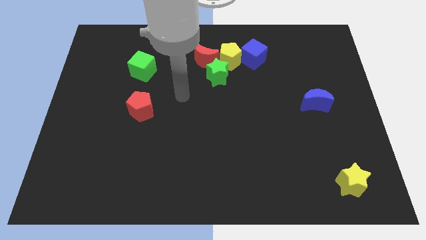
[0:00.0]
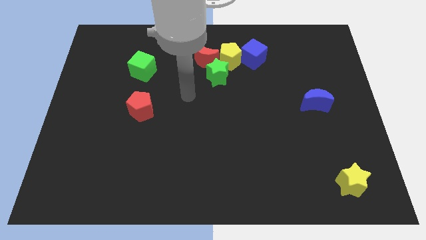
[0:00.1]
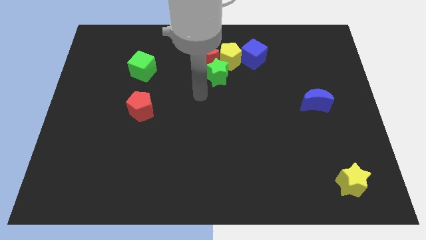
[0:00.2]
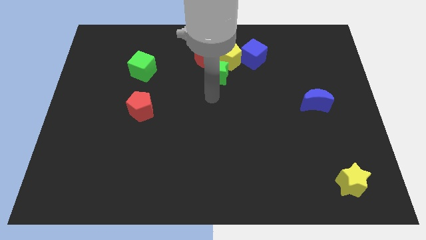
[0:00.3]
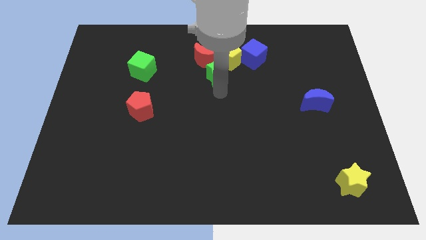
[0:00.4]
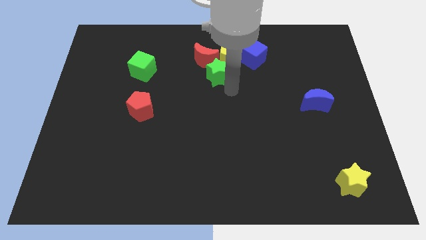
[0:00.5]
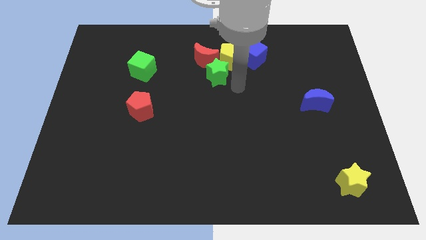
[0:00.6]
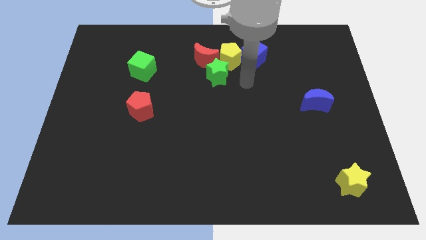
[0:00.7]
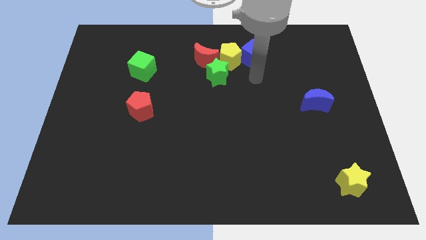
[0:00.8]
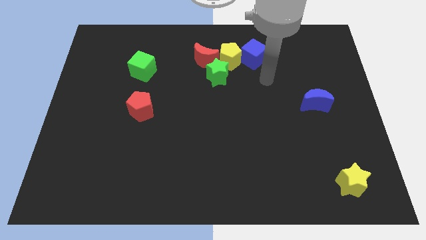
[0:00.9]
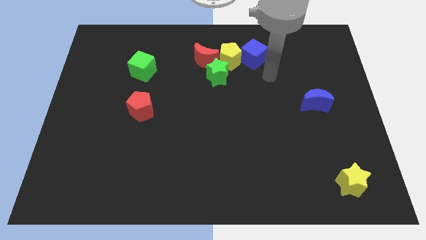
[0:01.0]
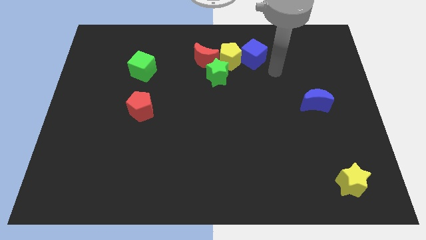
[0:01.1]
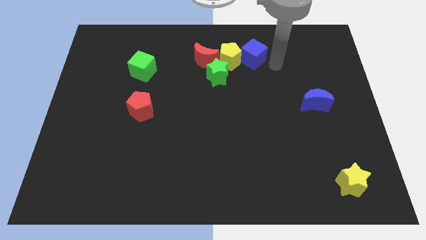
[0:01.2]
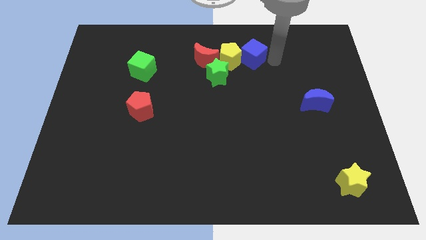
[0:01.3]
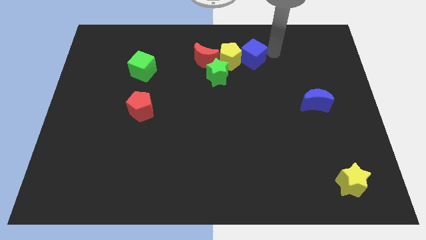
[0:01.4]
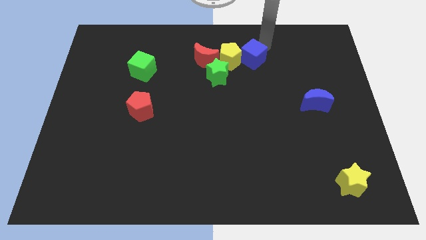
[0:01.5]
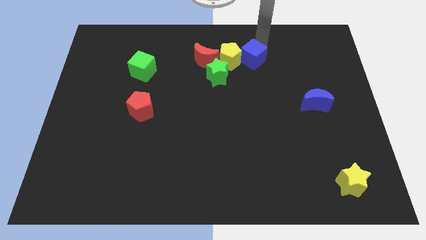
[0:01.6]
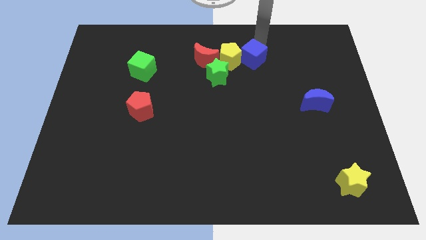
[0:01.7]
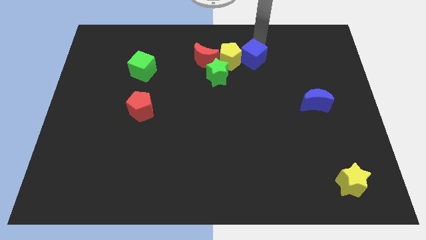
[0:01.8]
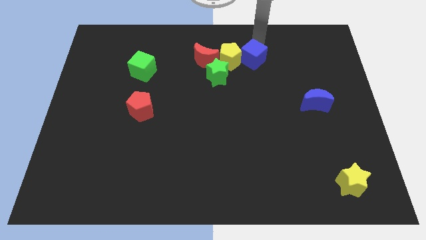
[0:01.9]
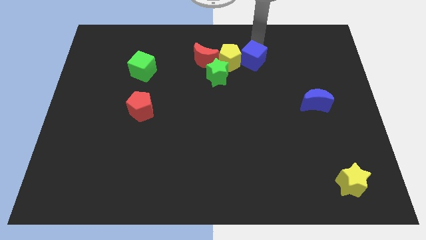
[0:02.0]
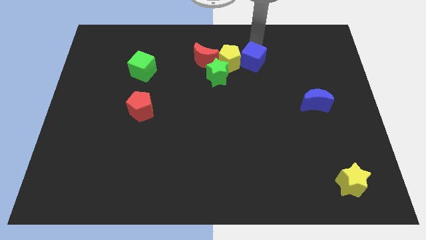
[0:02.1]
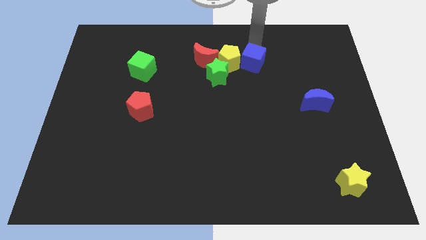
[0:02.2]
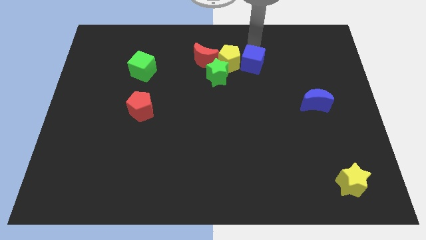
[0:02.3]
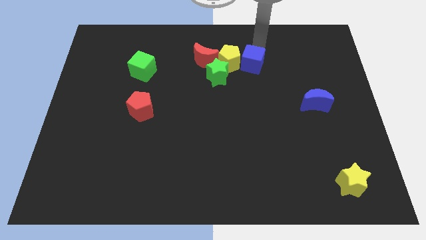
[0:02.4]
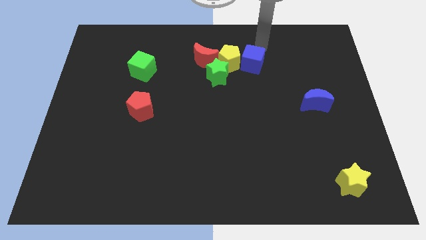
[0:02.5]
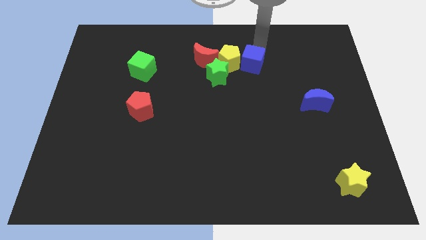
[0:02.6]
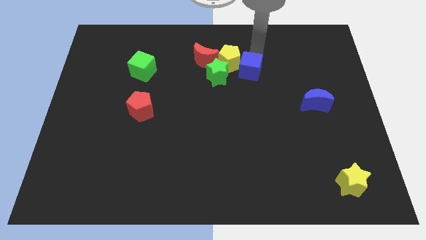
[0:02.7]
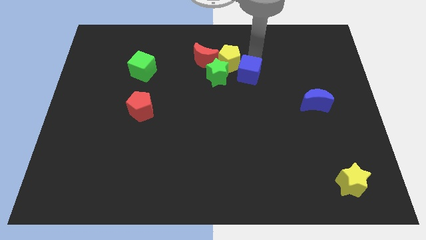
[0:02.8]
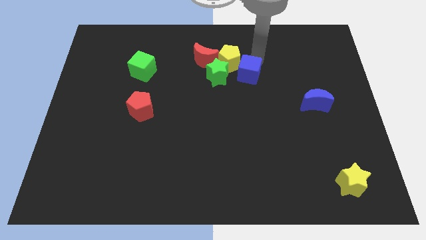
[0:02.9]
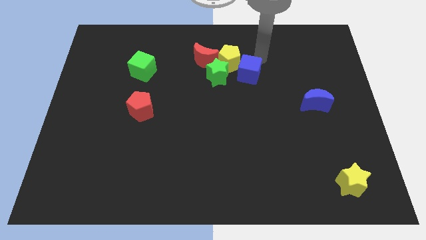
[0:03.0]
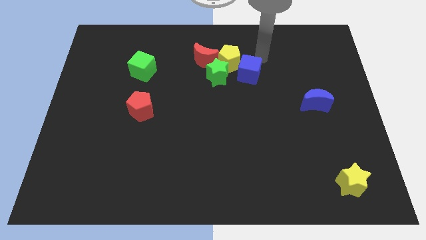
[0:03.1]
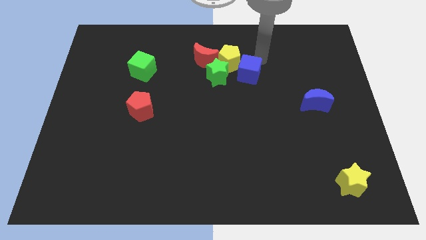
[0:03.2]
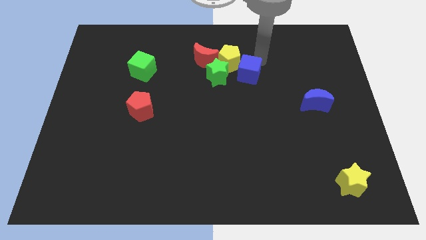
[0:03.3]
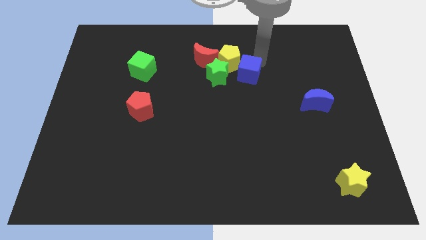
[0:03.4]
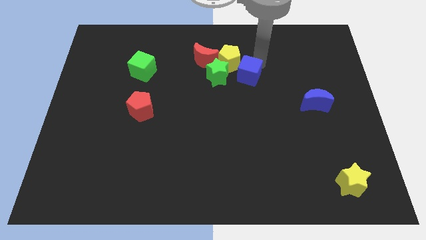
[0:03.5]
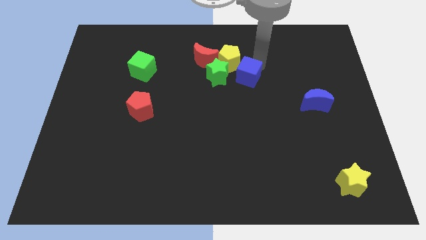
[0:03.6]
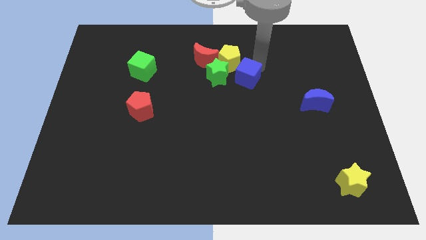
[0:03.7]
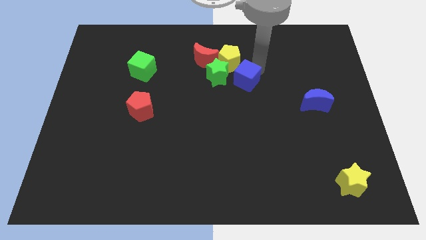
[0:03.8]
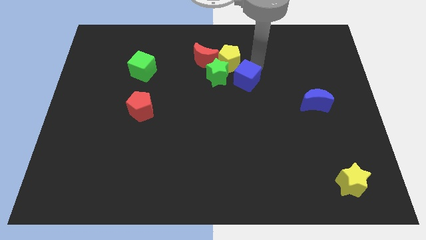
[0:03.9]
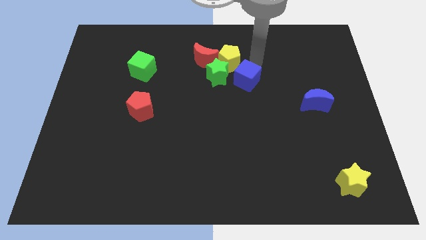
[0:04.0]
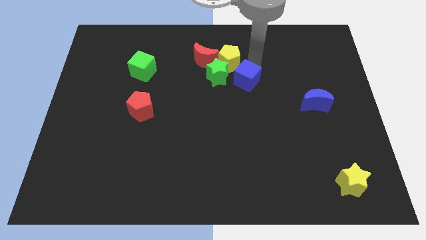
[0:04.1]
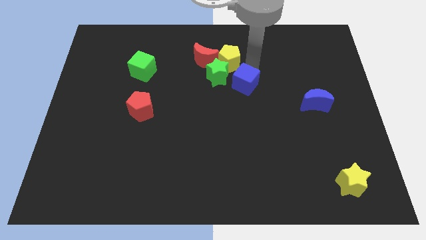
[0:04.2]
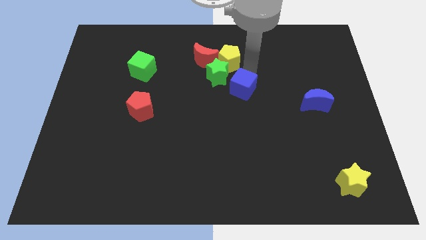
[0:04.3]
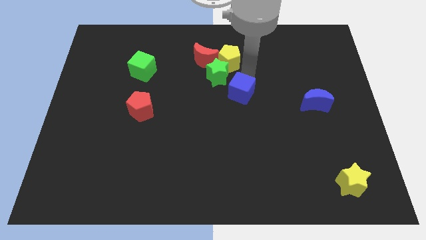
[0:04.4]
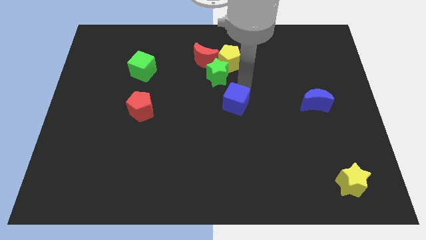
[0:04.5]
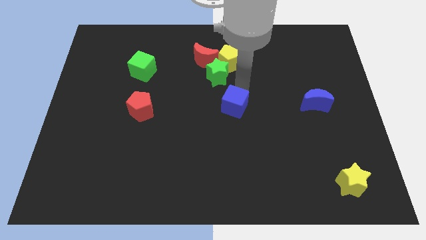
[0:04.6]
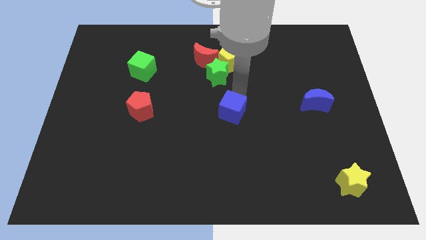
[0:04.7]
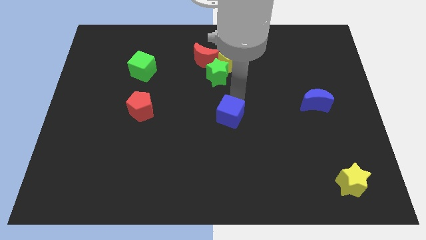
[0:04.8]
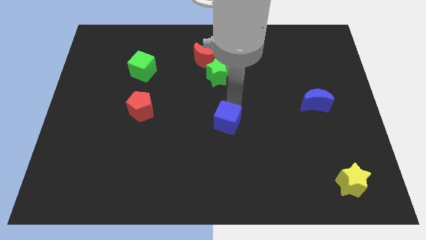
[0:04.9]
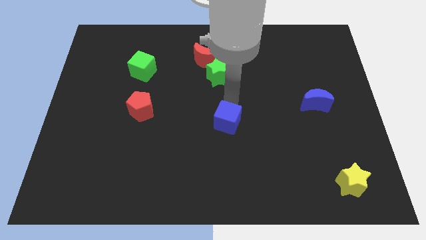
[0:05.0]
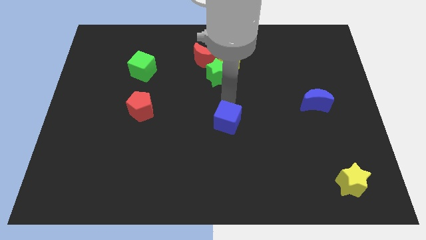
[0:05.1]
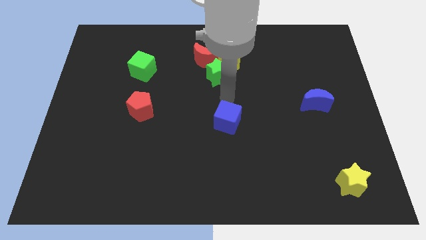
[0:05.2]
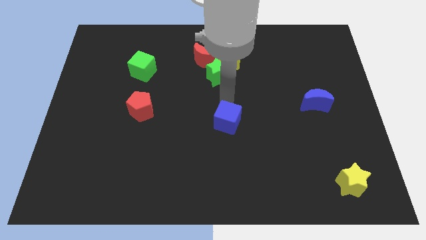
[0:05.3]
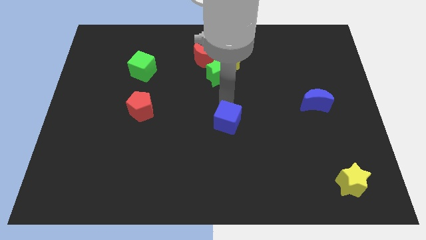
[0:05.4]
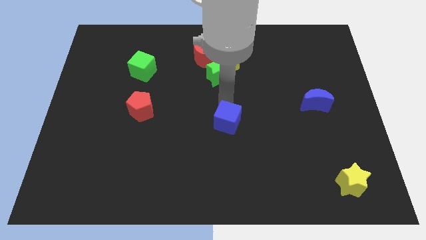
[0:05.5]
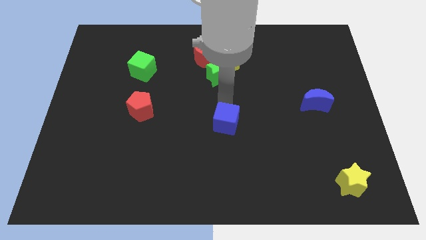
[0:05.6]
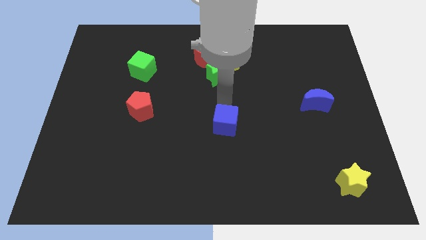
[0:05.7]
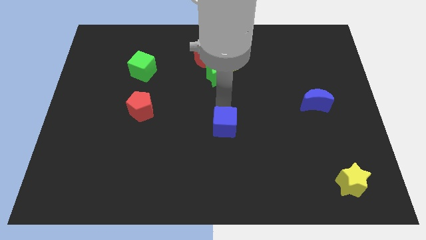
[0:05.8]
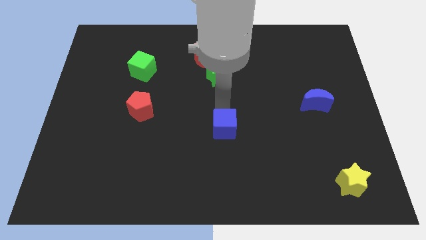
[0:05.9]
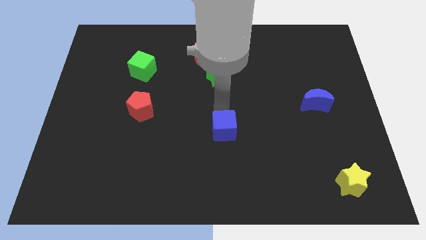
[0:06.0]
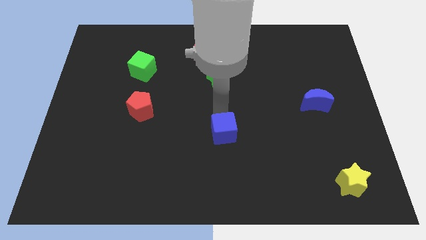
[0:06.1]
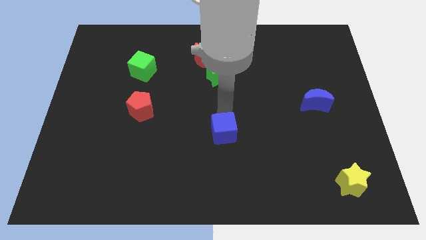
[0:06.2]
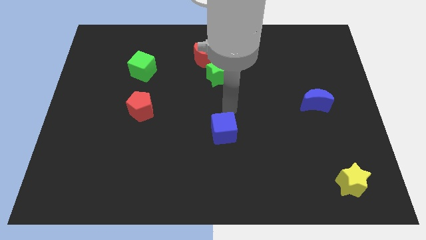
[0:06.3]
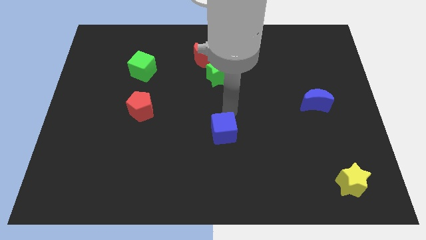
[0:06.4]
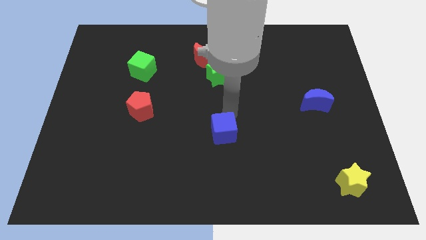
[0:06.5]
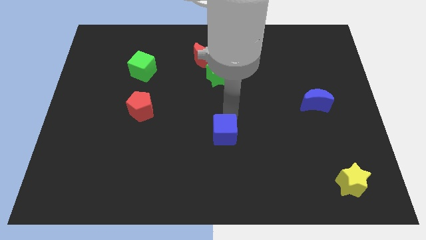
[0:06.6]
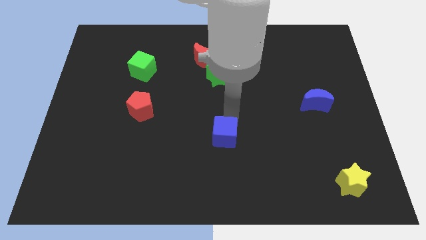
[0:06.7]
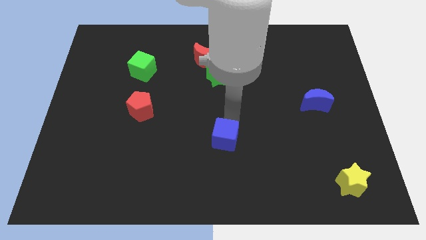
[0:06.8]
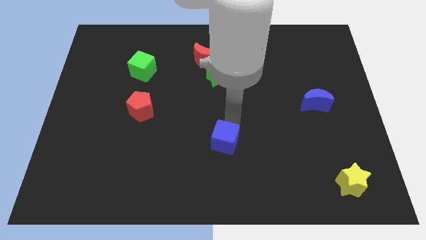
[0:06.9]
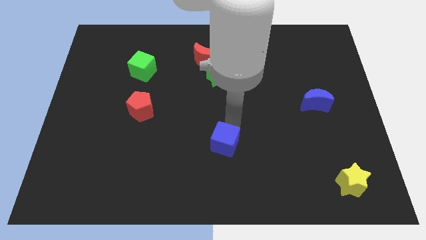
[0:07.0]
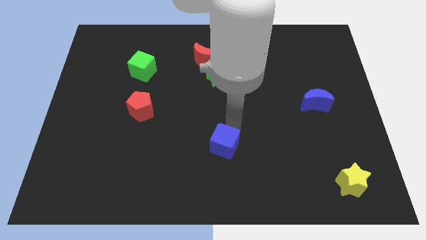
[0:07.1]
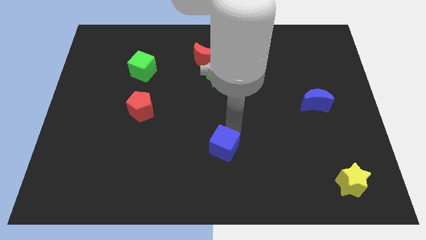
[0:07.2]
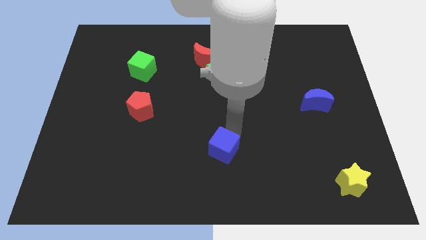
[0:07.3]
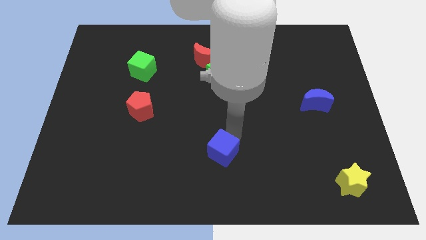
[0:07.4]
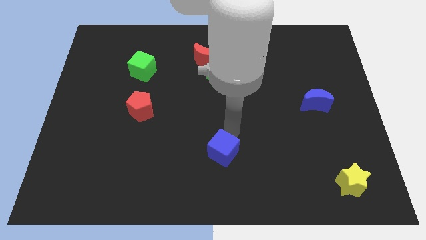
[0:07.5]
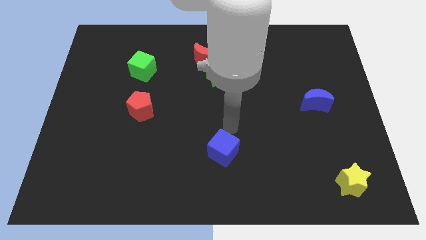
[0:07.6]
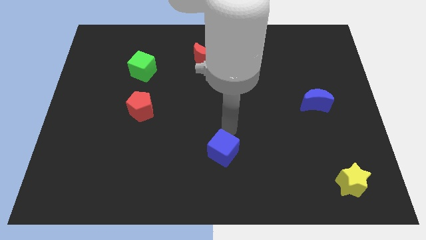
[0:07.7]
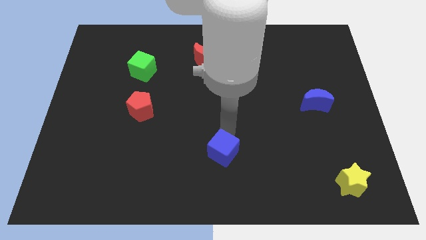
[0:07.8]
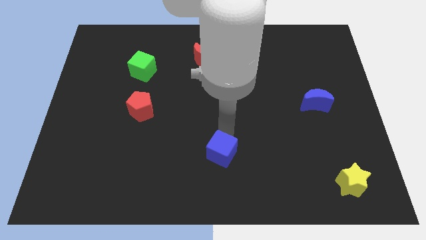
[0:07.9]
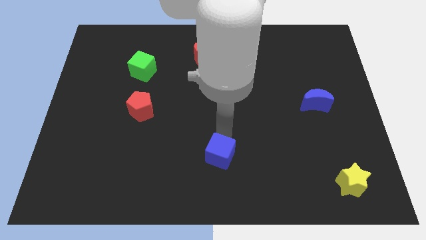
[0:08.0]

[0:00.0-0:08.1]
move the blue cube to the bottom
